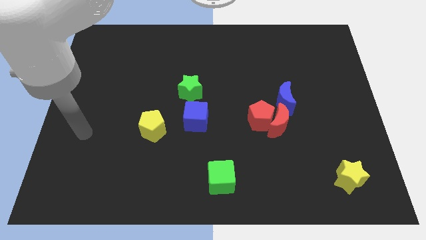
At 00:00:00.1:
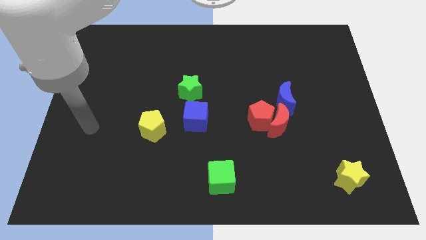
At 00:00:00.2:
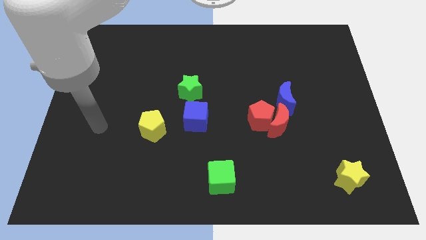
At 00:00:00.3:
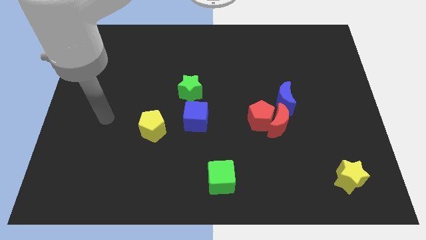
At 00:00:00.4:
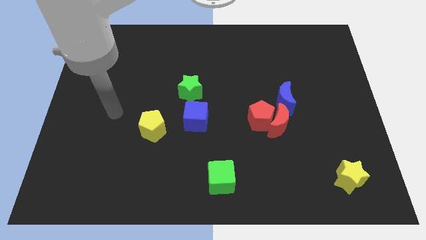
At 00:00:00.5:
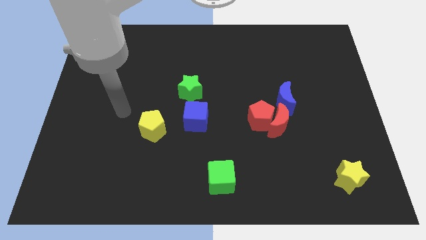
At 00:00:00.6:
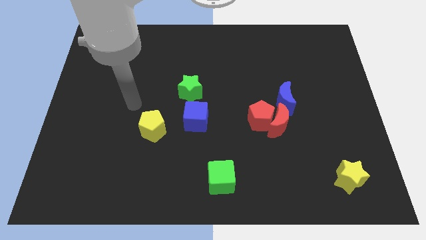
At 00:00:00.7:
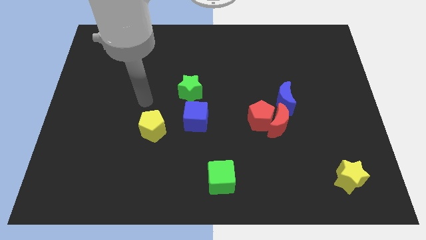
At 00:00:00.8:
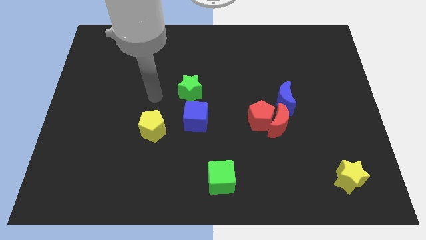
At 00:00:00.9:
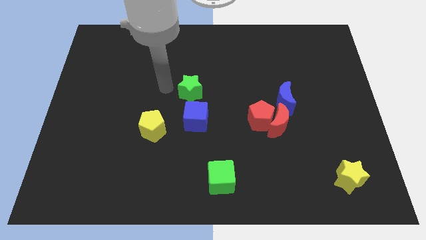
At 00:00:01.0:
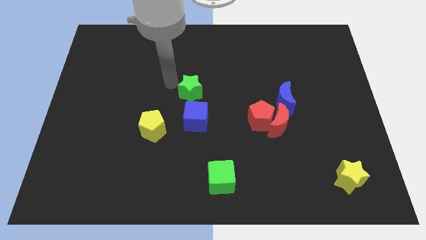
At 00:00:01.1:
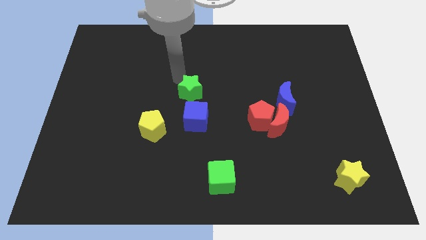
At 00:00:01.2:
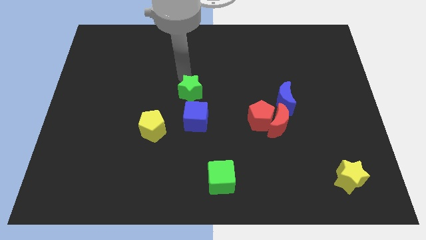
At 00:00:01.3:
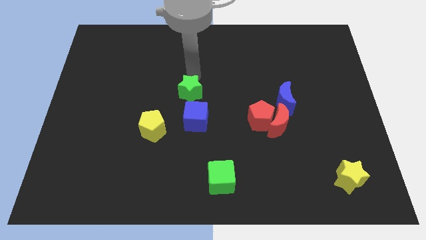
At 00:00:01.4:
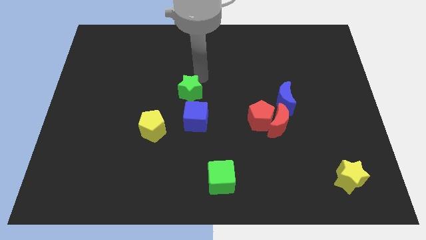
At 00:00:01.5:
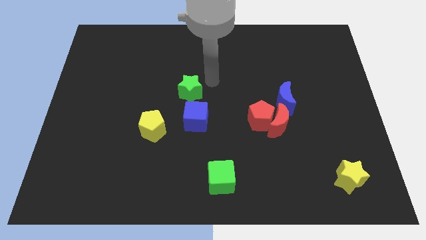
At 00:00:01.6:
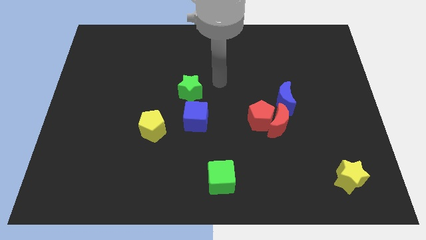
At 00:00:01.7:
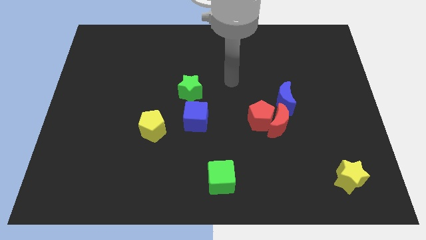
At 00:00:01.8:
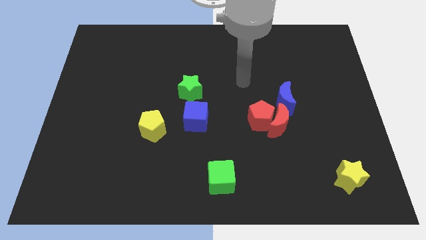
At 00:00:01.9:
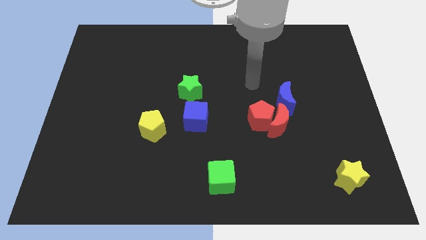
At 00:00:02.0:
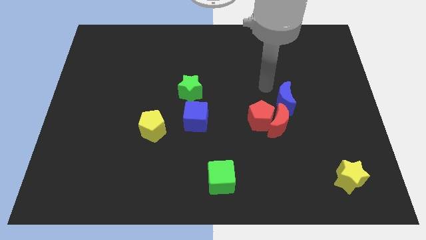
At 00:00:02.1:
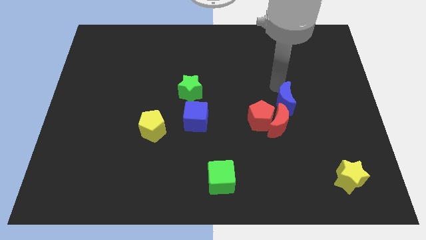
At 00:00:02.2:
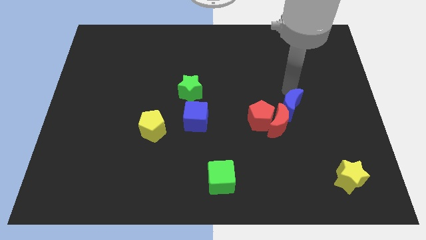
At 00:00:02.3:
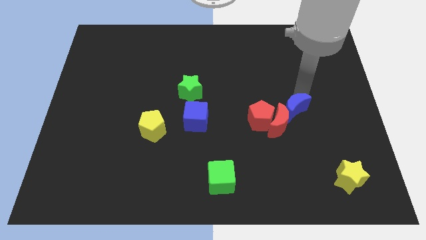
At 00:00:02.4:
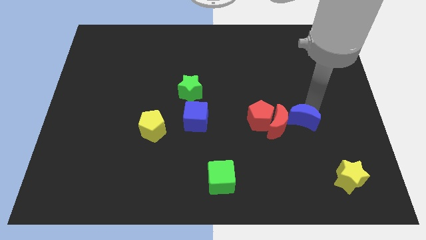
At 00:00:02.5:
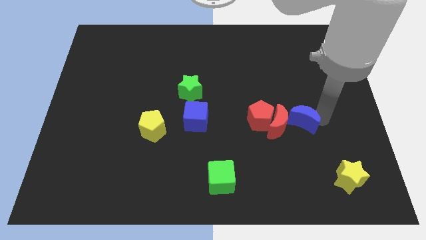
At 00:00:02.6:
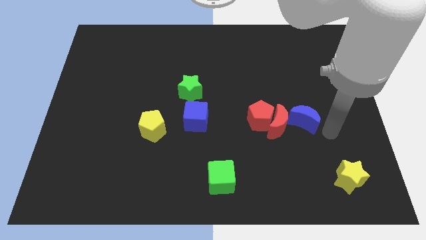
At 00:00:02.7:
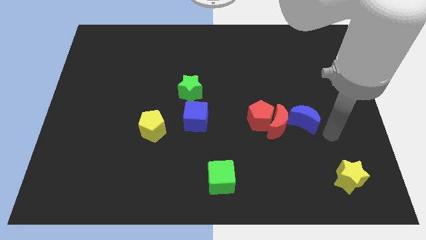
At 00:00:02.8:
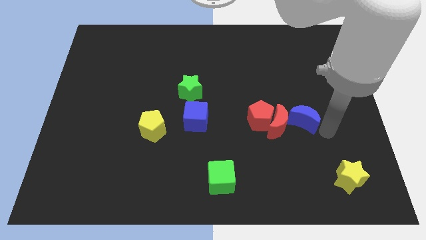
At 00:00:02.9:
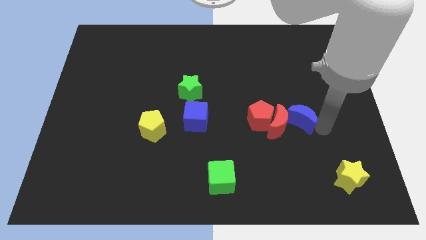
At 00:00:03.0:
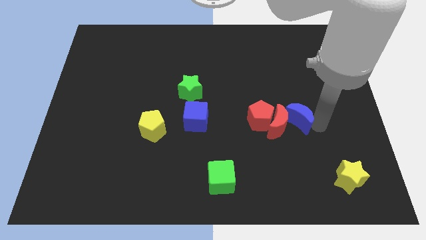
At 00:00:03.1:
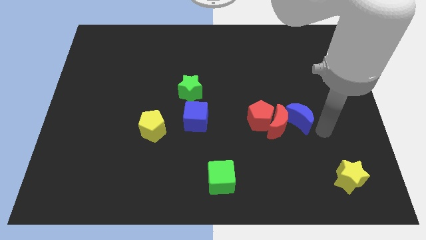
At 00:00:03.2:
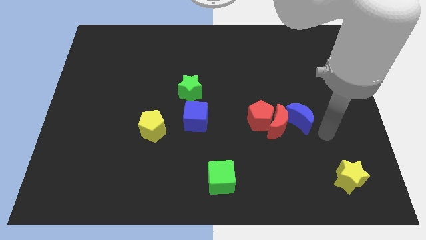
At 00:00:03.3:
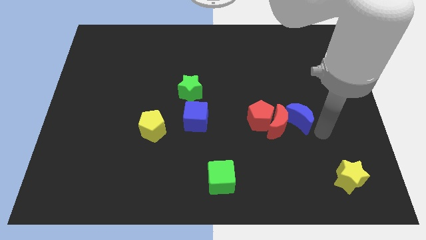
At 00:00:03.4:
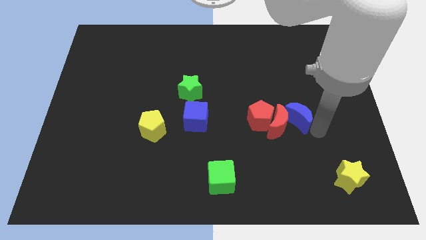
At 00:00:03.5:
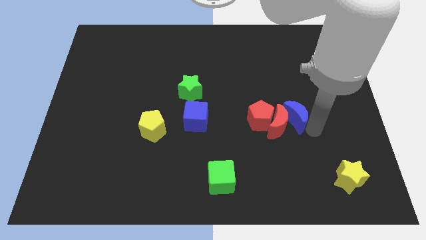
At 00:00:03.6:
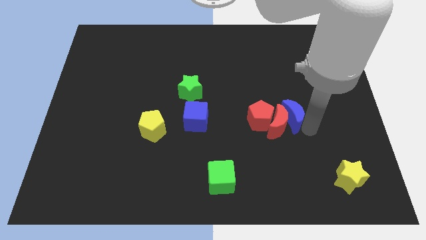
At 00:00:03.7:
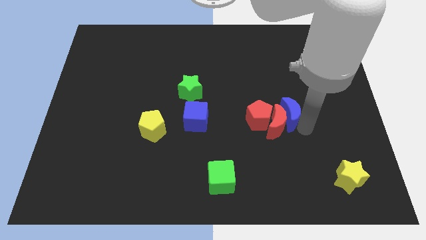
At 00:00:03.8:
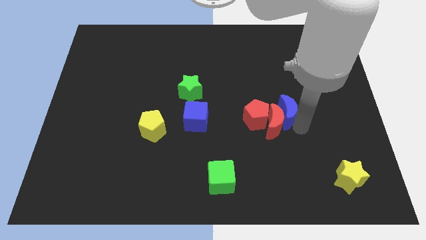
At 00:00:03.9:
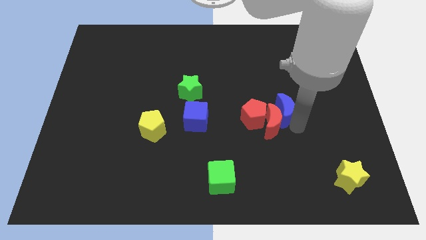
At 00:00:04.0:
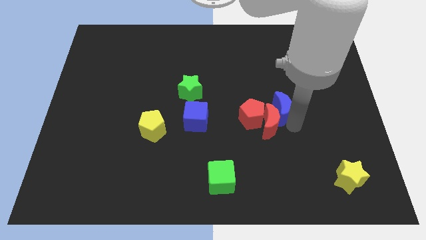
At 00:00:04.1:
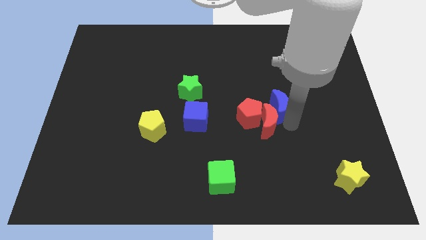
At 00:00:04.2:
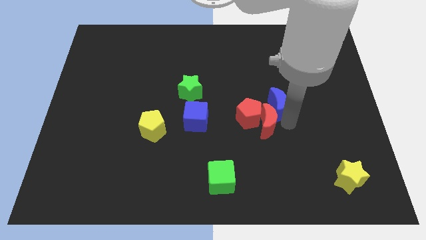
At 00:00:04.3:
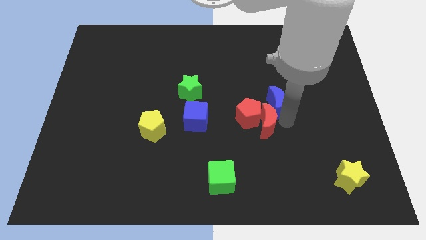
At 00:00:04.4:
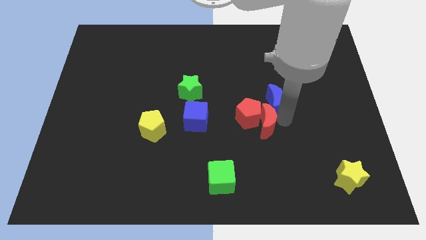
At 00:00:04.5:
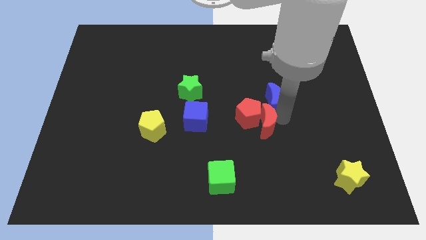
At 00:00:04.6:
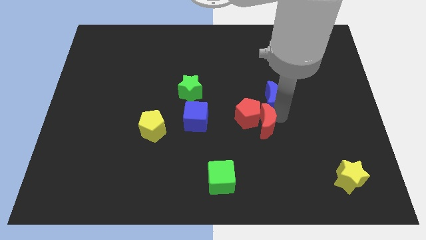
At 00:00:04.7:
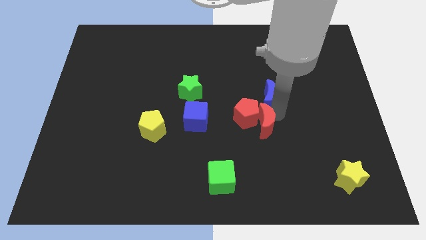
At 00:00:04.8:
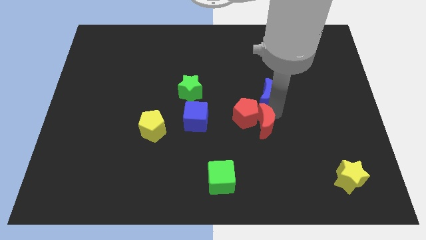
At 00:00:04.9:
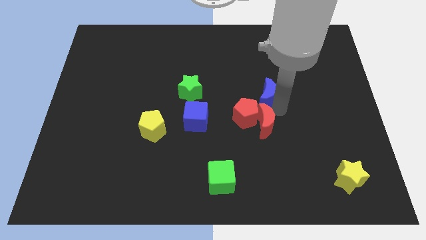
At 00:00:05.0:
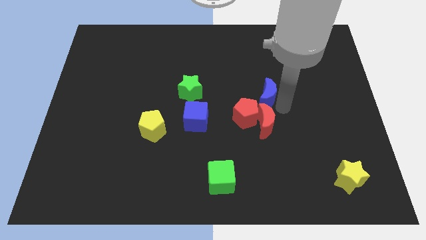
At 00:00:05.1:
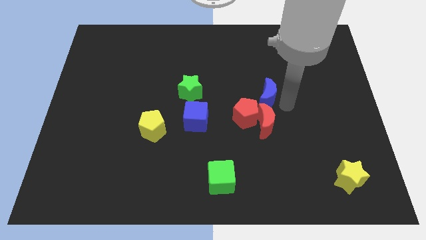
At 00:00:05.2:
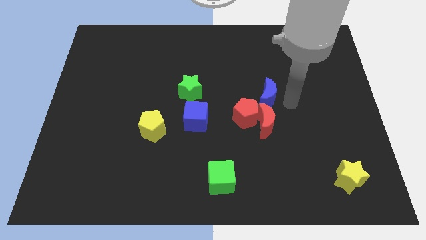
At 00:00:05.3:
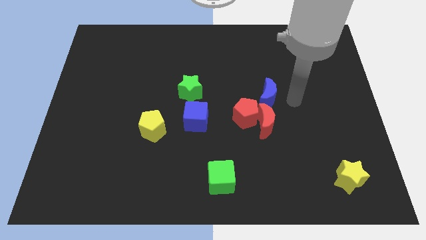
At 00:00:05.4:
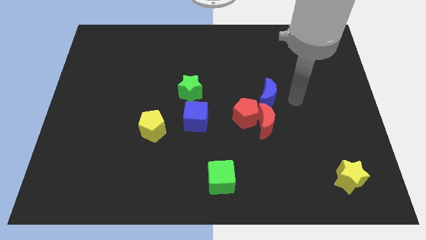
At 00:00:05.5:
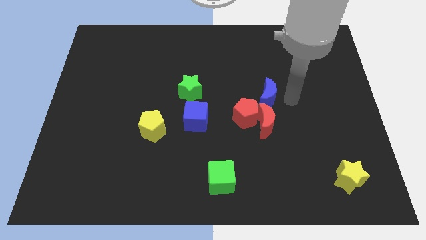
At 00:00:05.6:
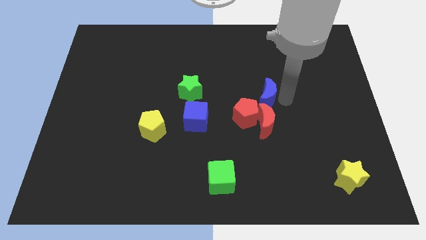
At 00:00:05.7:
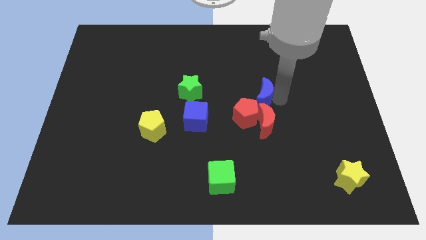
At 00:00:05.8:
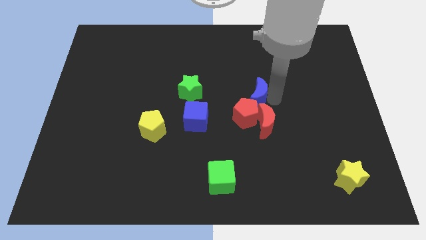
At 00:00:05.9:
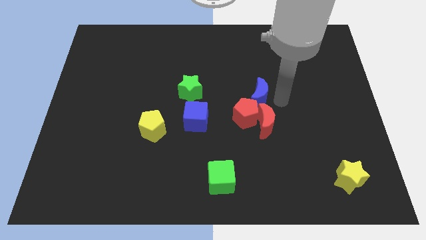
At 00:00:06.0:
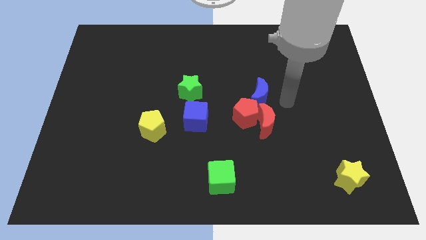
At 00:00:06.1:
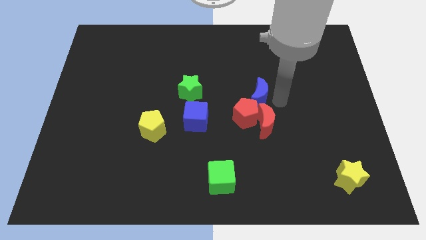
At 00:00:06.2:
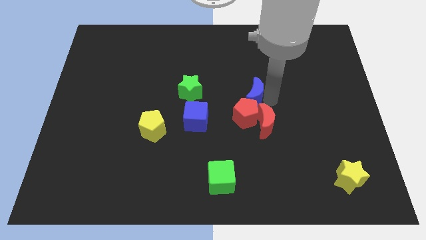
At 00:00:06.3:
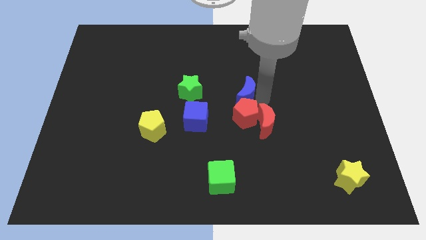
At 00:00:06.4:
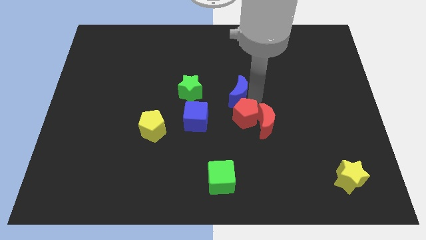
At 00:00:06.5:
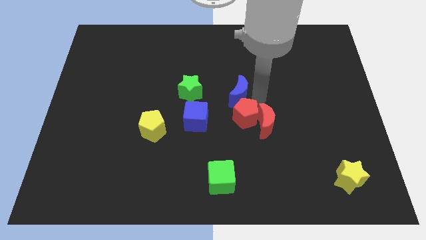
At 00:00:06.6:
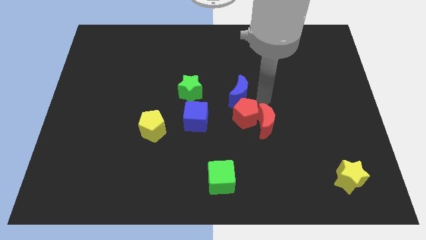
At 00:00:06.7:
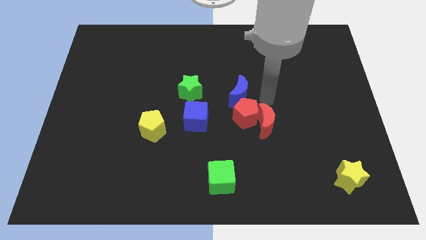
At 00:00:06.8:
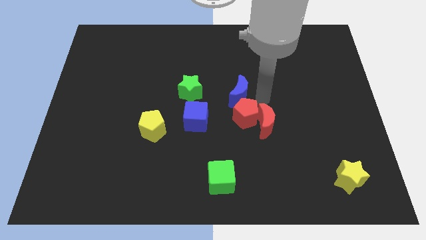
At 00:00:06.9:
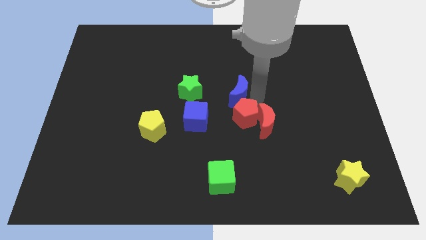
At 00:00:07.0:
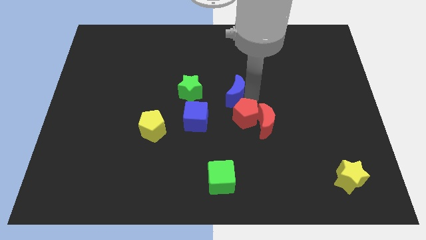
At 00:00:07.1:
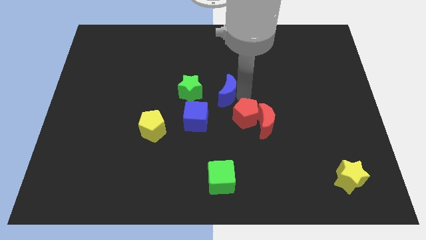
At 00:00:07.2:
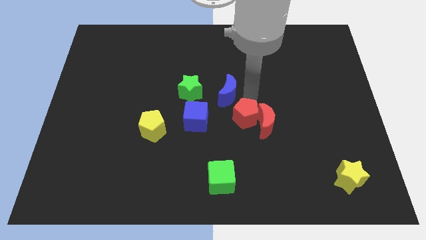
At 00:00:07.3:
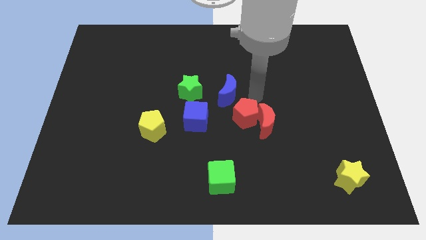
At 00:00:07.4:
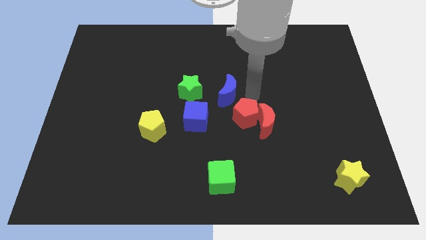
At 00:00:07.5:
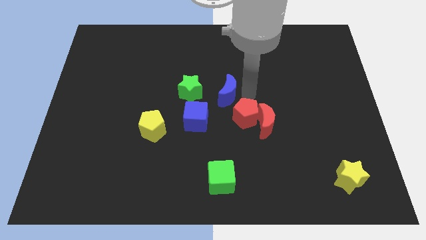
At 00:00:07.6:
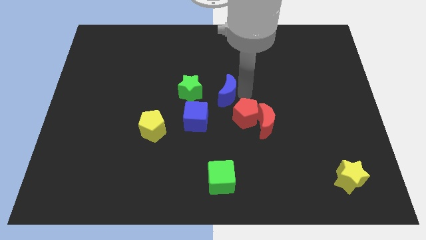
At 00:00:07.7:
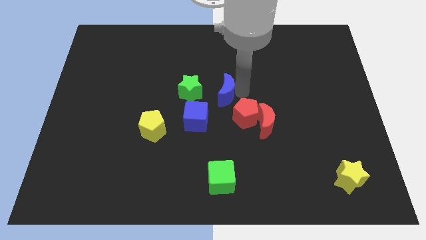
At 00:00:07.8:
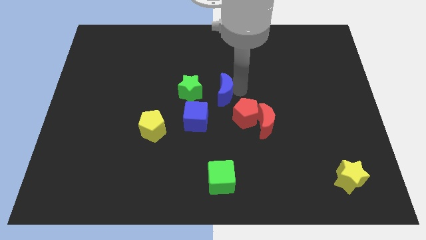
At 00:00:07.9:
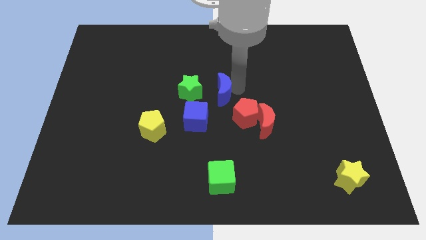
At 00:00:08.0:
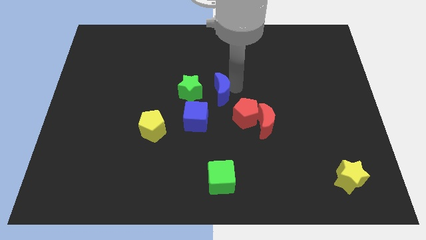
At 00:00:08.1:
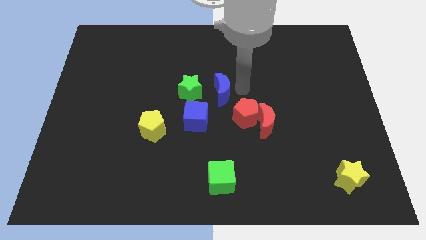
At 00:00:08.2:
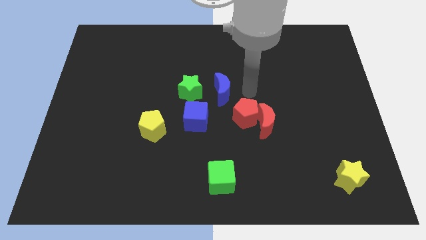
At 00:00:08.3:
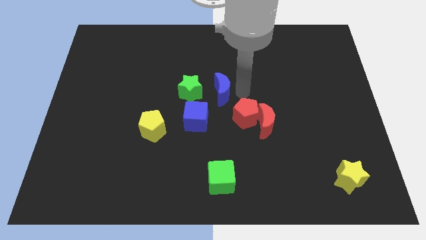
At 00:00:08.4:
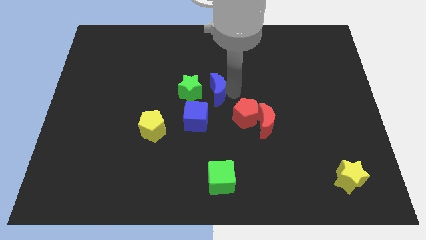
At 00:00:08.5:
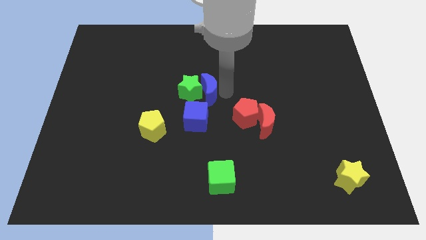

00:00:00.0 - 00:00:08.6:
slide the blue moon towards the green star
